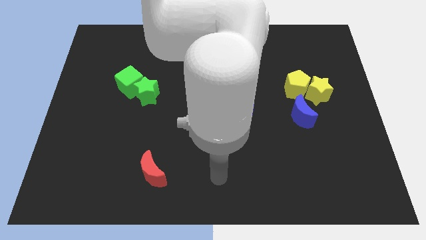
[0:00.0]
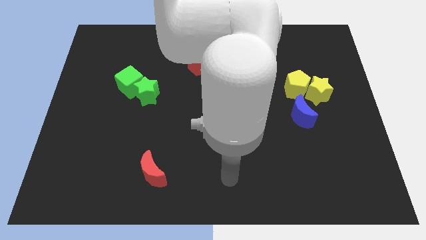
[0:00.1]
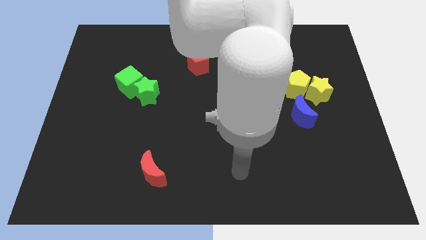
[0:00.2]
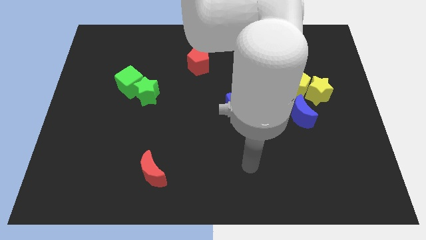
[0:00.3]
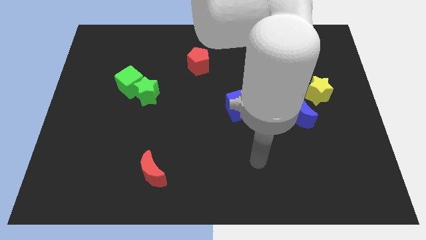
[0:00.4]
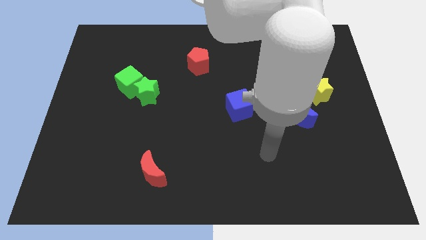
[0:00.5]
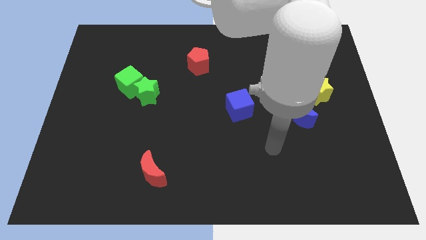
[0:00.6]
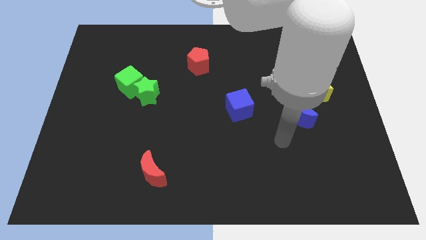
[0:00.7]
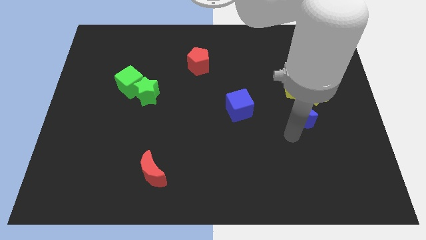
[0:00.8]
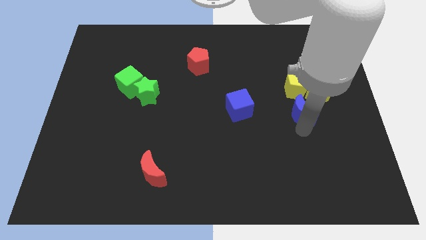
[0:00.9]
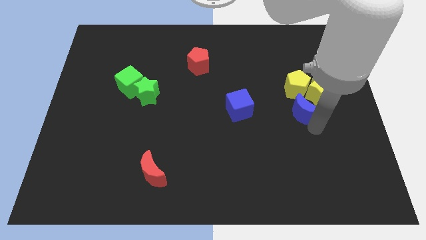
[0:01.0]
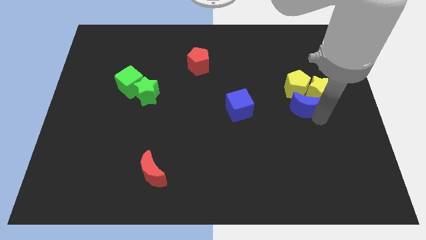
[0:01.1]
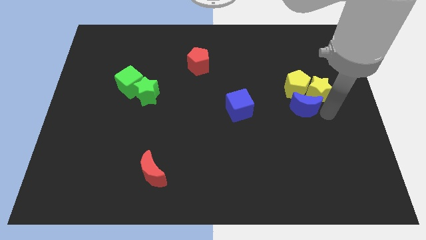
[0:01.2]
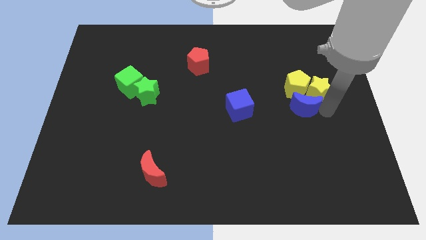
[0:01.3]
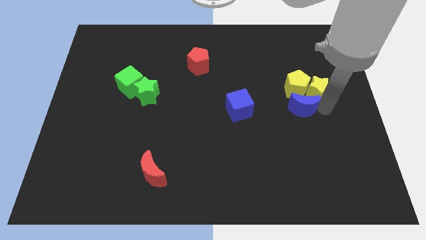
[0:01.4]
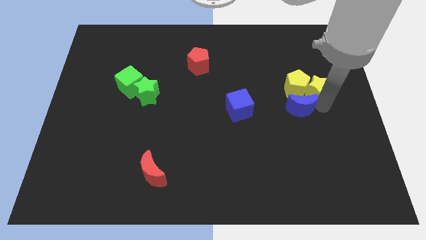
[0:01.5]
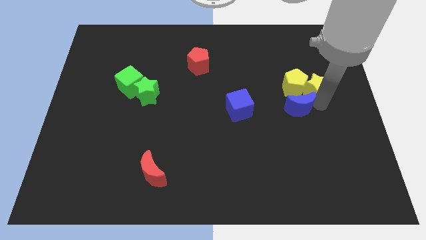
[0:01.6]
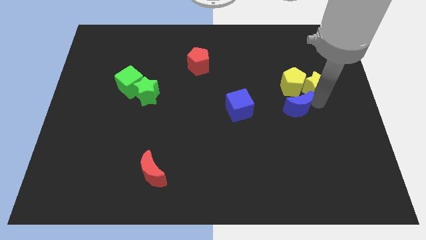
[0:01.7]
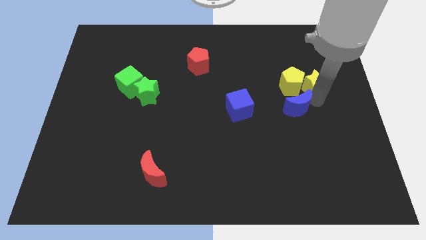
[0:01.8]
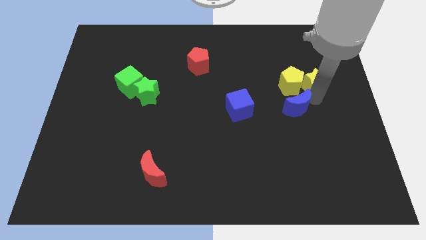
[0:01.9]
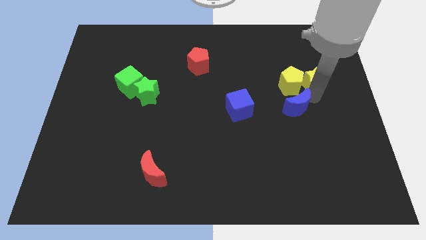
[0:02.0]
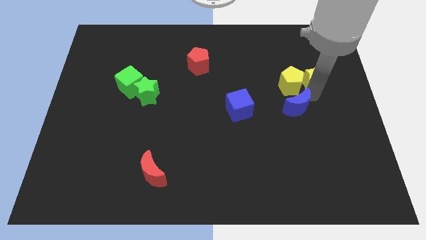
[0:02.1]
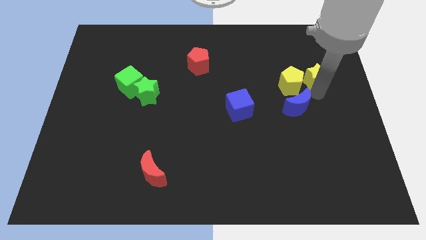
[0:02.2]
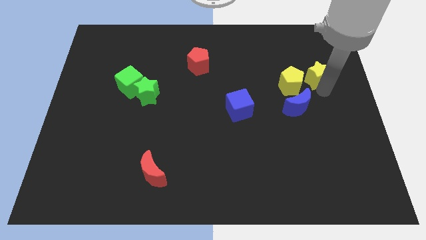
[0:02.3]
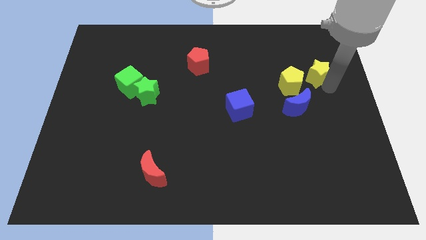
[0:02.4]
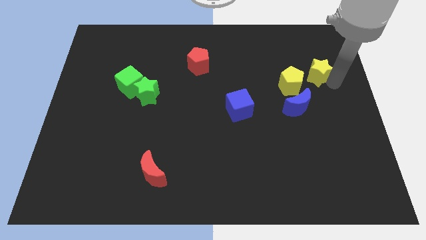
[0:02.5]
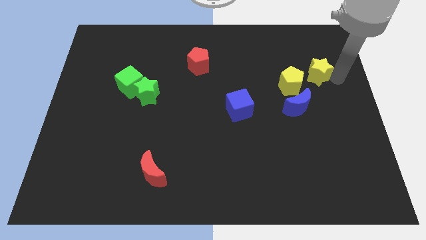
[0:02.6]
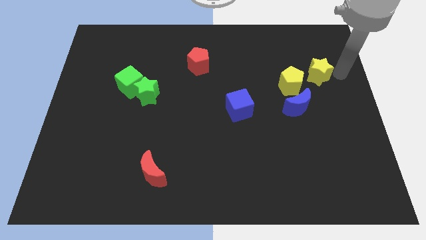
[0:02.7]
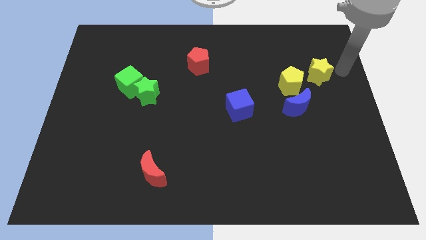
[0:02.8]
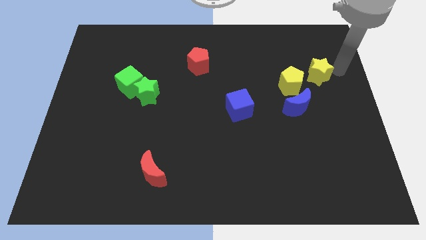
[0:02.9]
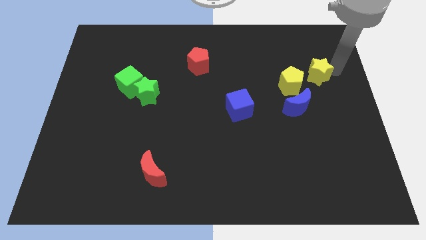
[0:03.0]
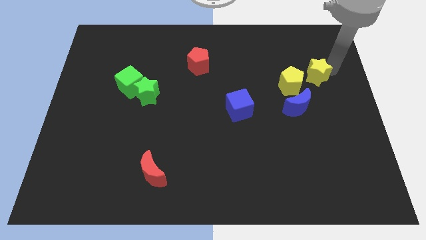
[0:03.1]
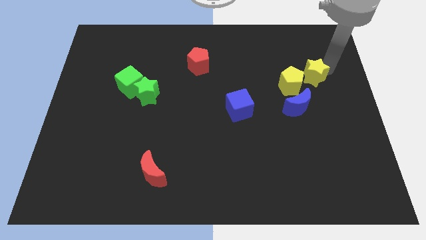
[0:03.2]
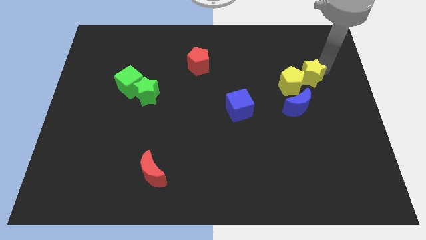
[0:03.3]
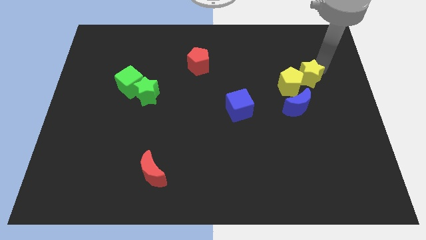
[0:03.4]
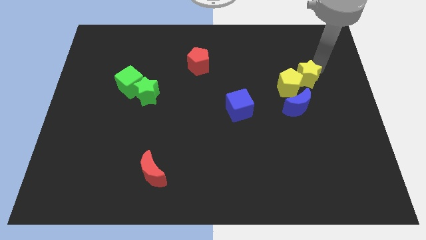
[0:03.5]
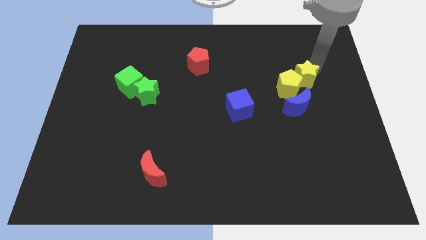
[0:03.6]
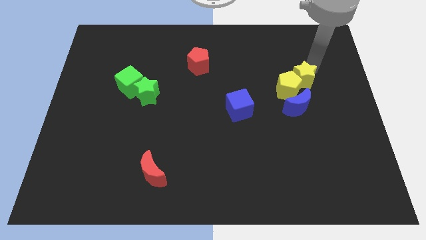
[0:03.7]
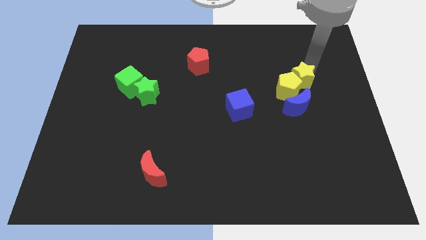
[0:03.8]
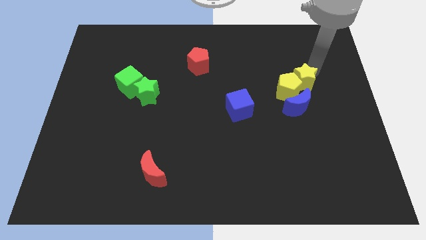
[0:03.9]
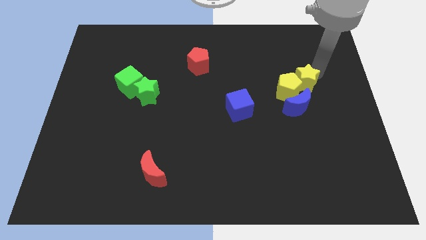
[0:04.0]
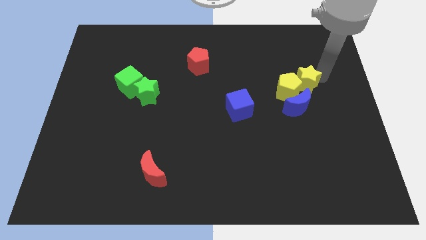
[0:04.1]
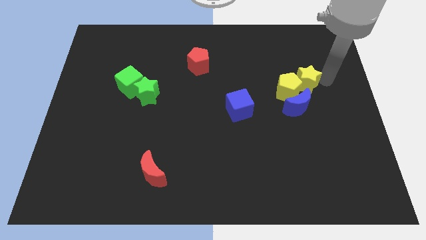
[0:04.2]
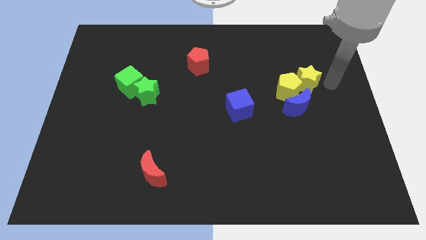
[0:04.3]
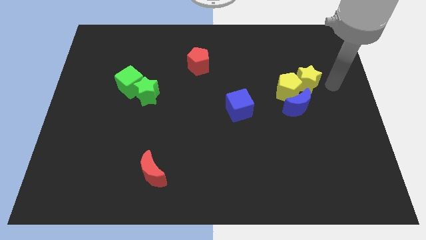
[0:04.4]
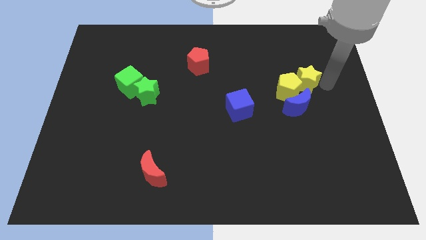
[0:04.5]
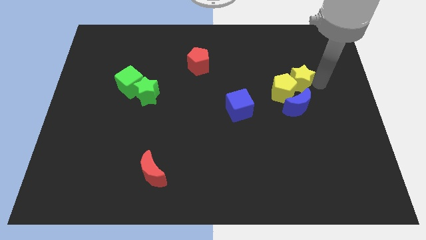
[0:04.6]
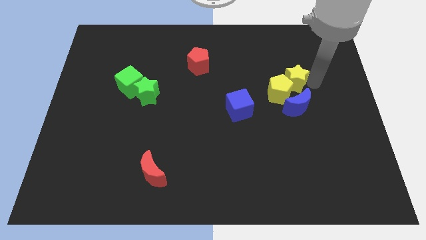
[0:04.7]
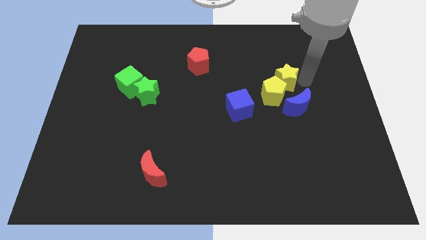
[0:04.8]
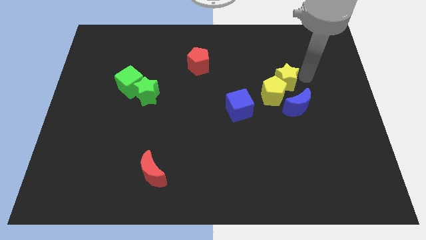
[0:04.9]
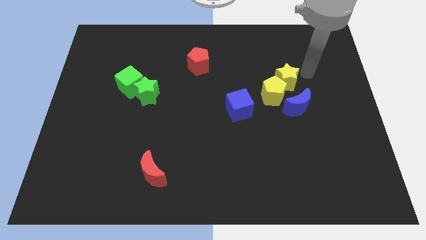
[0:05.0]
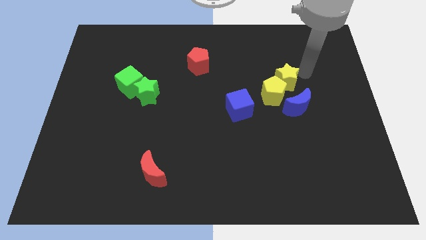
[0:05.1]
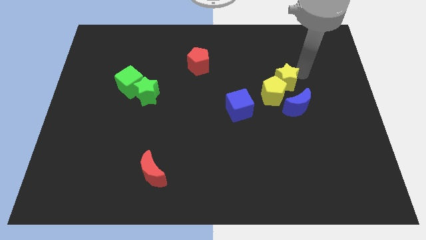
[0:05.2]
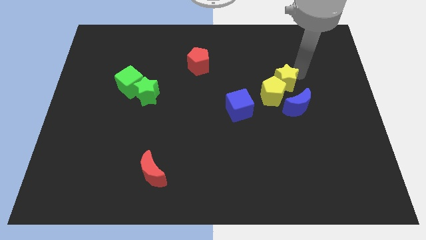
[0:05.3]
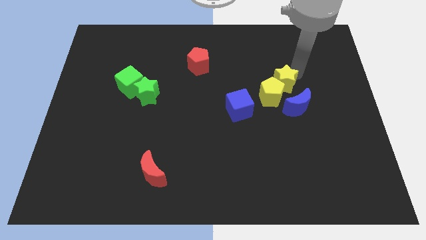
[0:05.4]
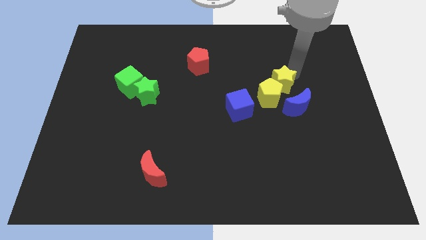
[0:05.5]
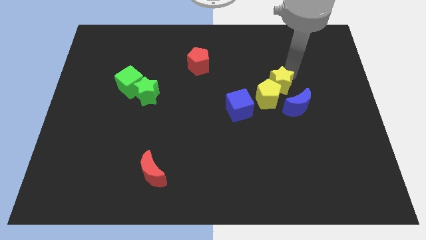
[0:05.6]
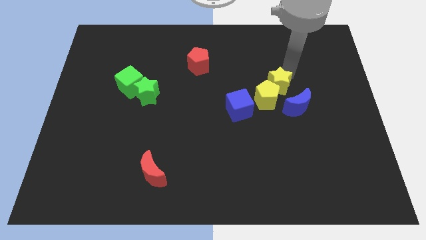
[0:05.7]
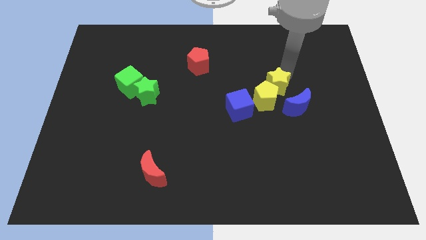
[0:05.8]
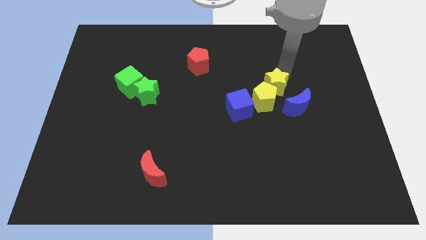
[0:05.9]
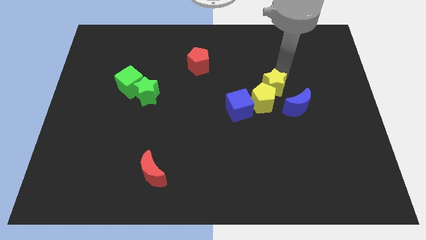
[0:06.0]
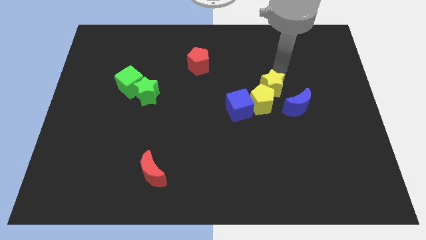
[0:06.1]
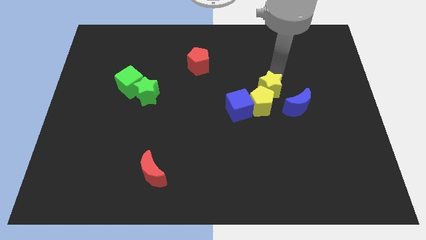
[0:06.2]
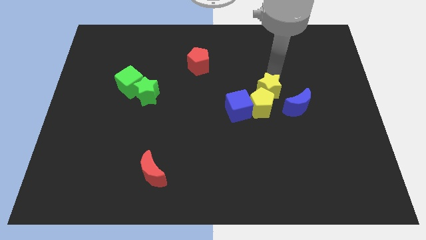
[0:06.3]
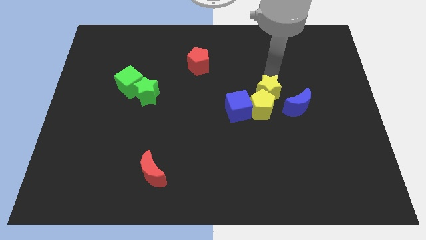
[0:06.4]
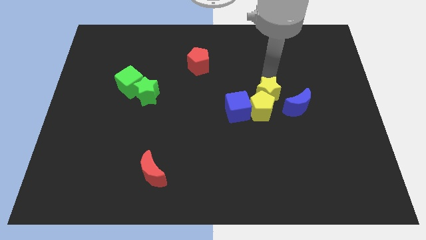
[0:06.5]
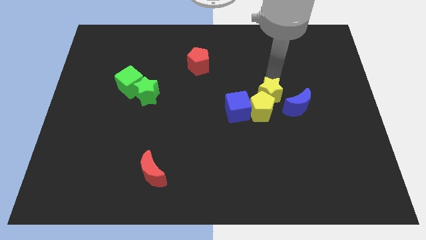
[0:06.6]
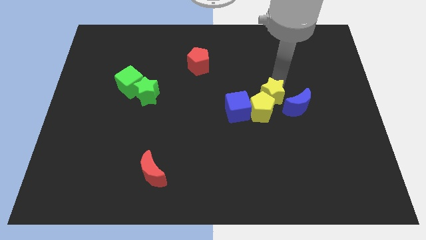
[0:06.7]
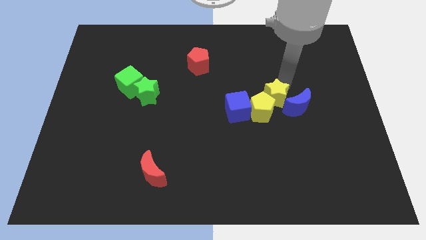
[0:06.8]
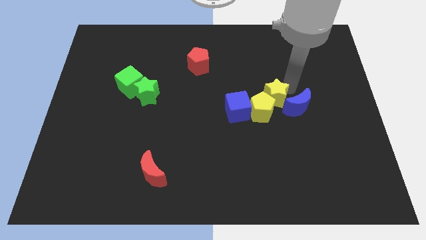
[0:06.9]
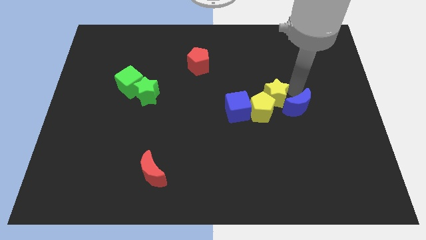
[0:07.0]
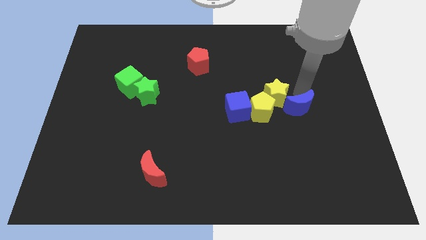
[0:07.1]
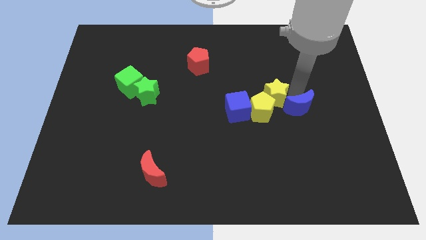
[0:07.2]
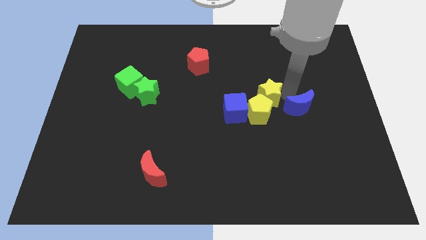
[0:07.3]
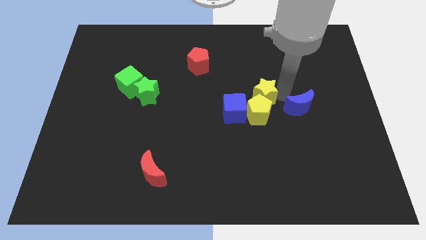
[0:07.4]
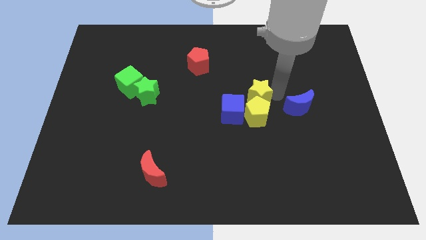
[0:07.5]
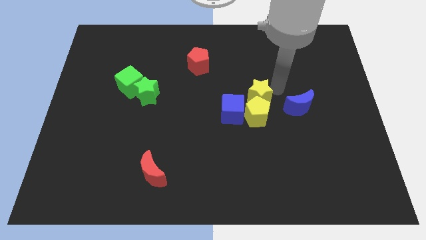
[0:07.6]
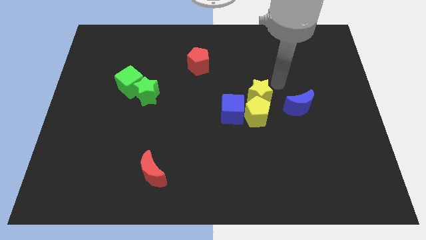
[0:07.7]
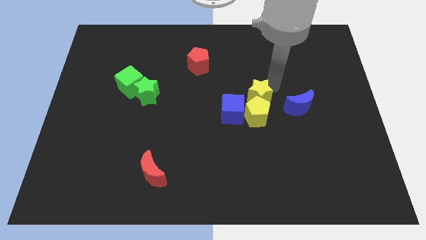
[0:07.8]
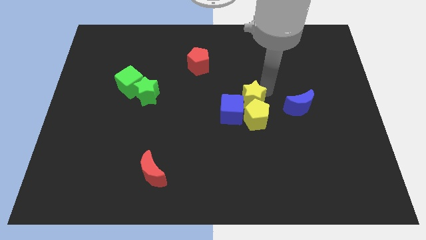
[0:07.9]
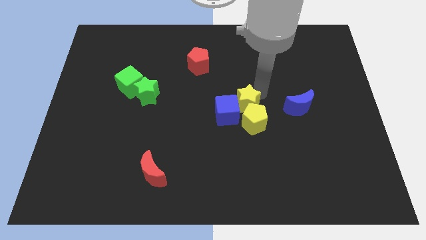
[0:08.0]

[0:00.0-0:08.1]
slide the yellow star next to the blue cube

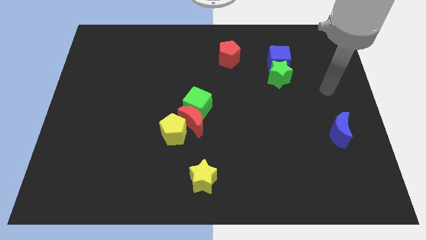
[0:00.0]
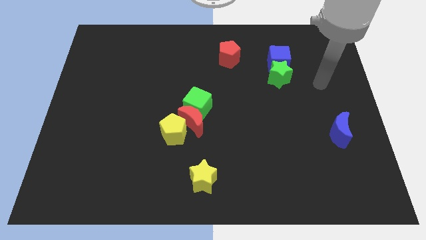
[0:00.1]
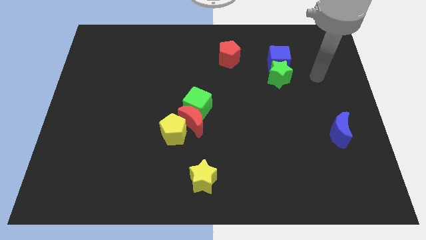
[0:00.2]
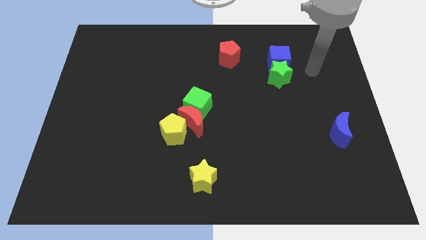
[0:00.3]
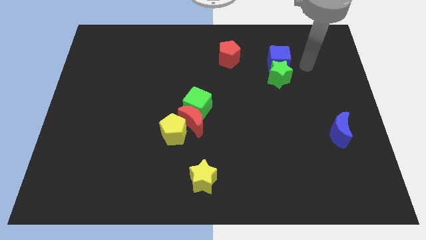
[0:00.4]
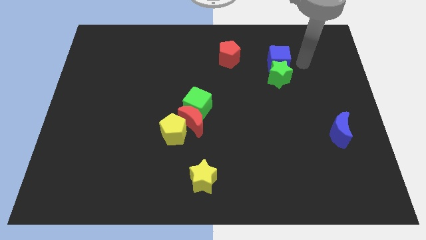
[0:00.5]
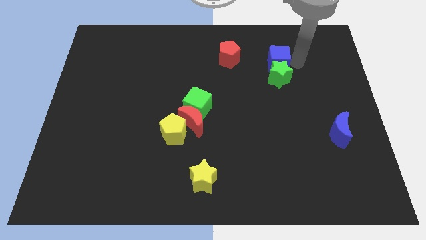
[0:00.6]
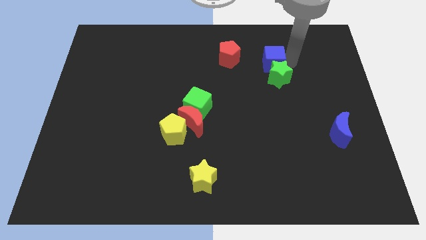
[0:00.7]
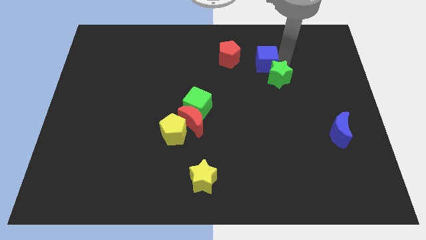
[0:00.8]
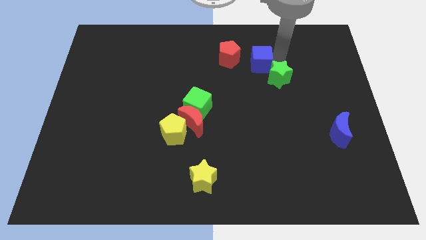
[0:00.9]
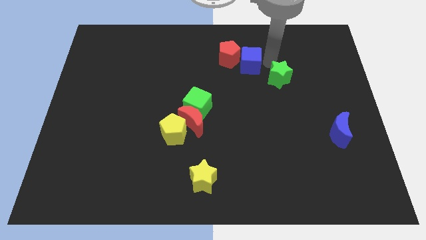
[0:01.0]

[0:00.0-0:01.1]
put the blue cube close to the red pentagon
